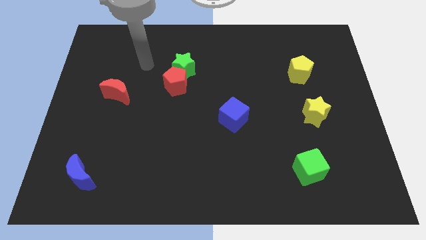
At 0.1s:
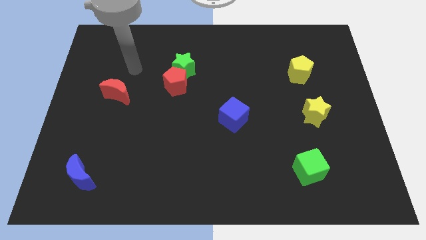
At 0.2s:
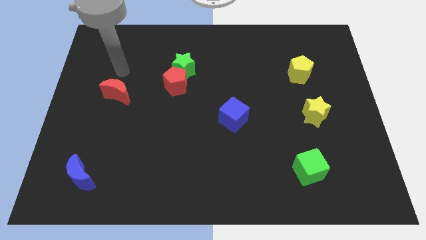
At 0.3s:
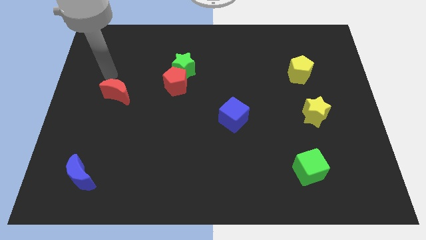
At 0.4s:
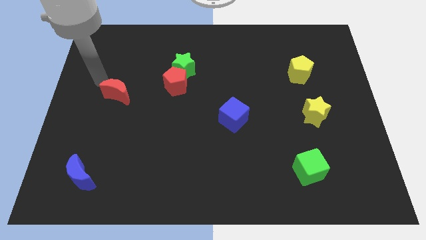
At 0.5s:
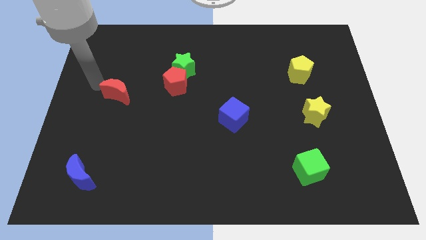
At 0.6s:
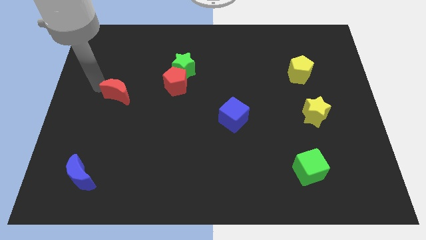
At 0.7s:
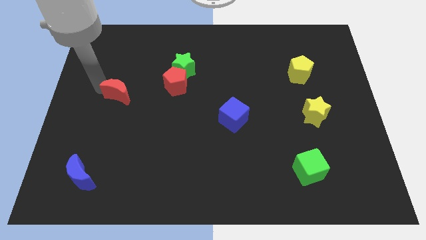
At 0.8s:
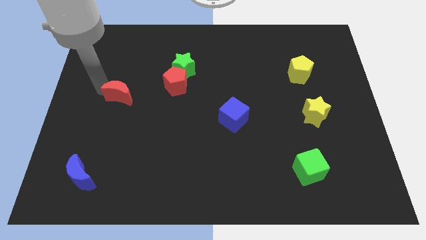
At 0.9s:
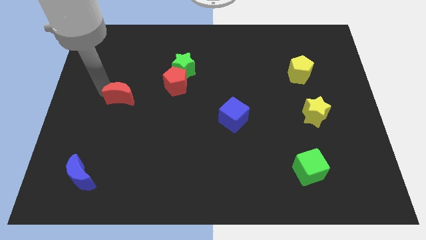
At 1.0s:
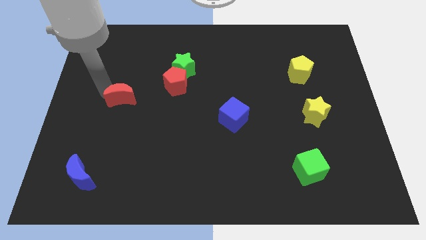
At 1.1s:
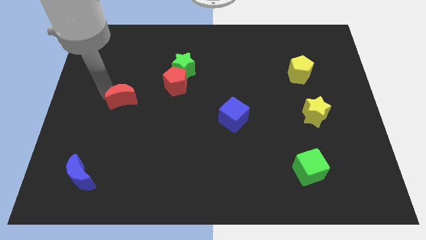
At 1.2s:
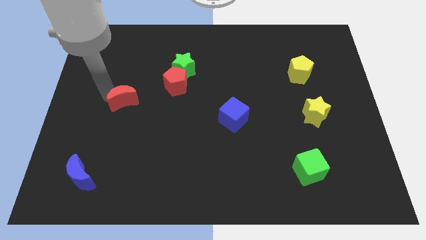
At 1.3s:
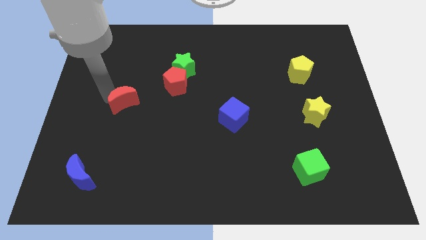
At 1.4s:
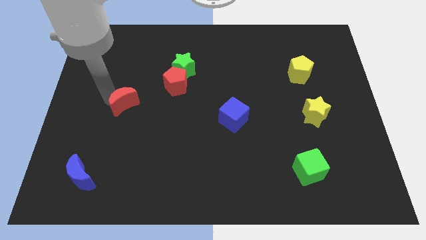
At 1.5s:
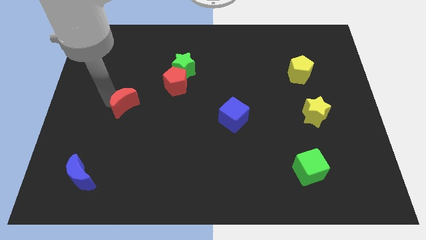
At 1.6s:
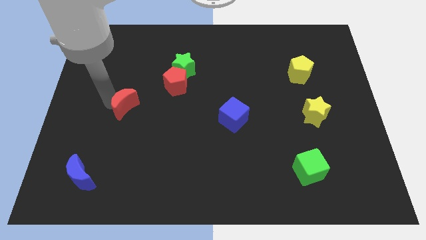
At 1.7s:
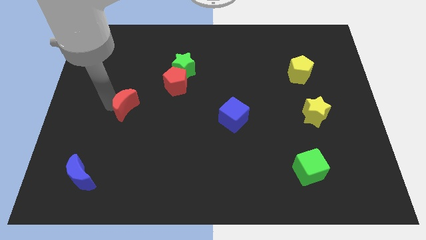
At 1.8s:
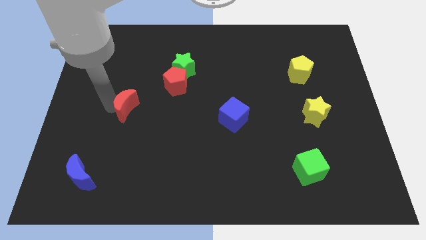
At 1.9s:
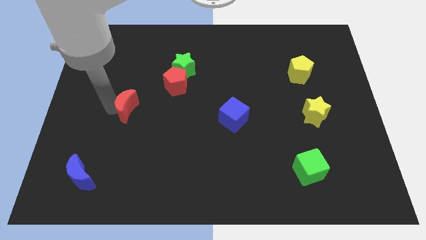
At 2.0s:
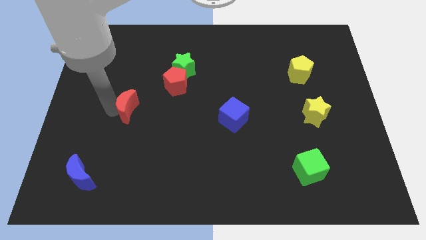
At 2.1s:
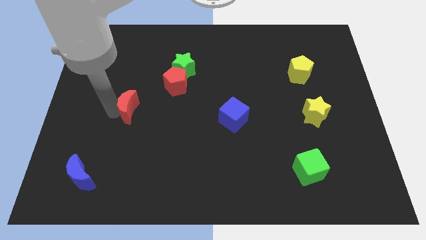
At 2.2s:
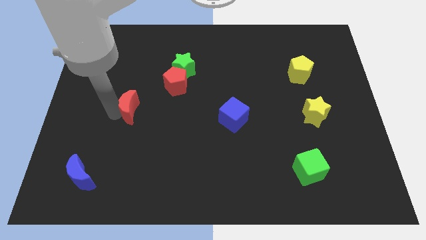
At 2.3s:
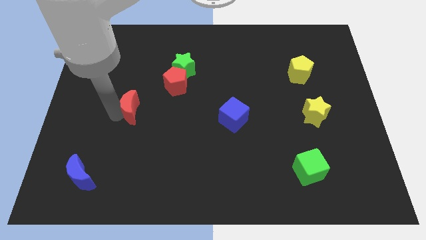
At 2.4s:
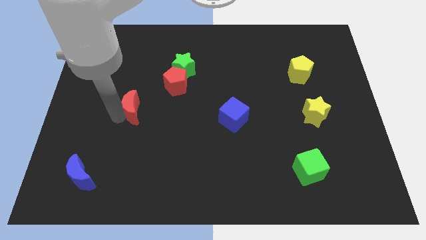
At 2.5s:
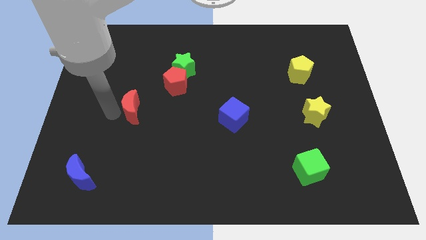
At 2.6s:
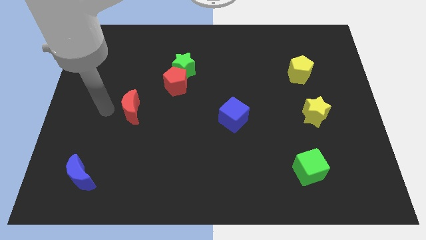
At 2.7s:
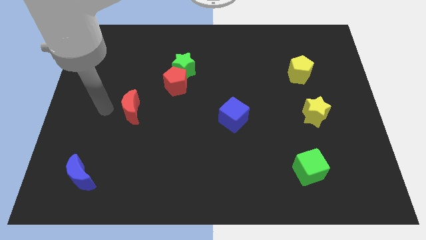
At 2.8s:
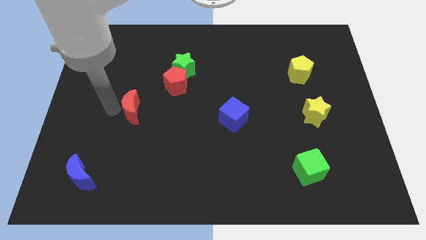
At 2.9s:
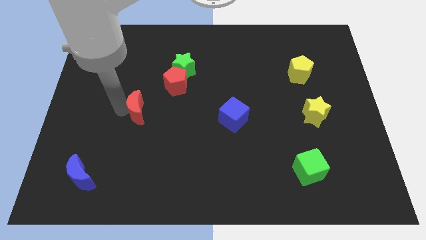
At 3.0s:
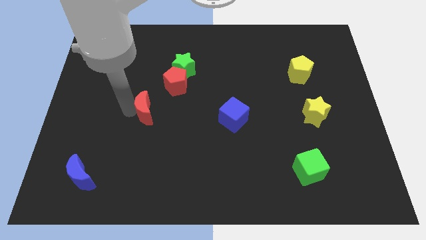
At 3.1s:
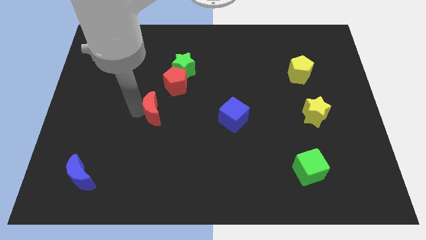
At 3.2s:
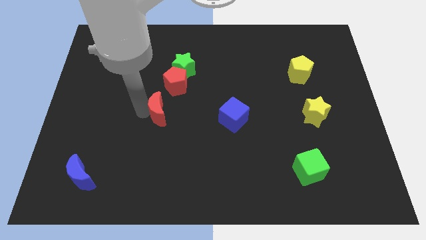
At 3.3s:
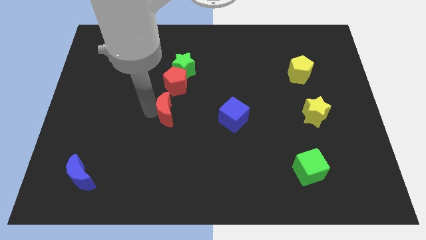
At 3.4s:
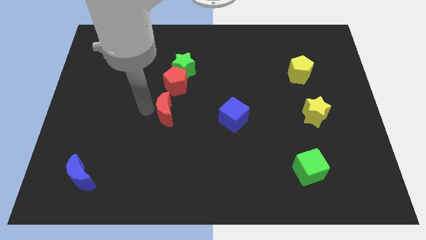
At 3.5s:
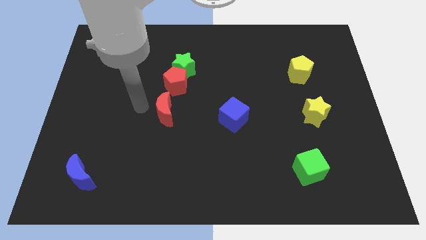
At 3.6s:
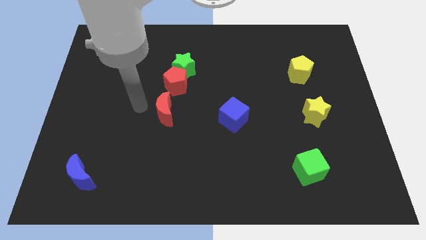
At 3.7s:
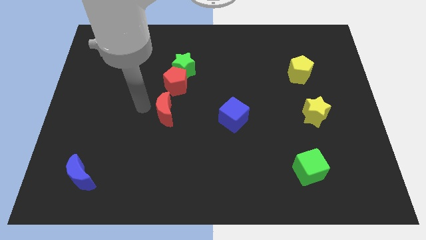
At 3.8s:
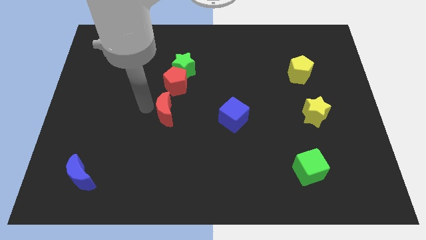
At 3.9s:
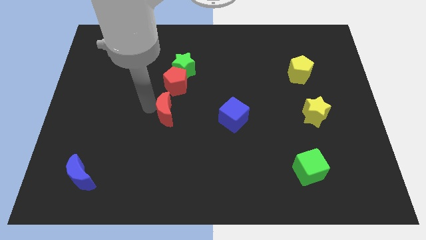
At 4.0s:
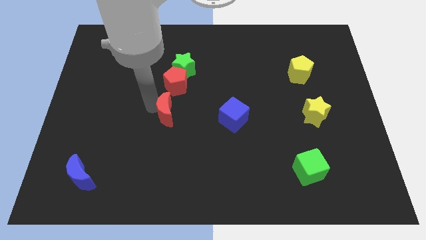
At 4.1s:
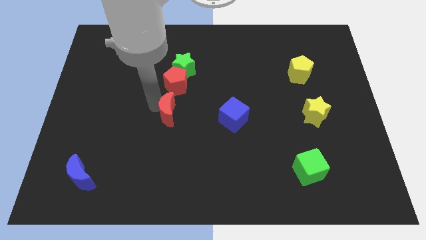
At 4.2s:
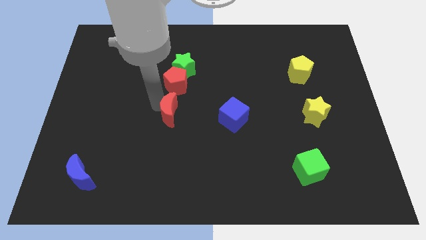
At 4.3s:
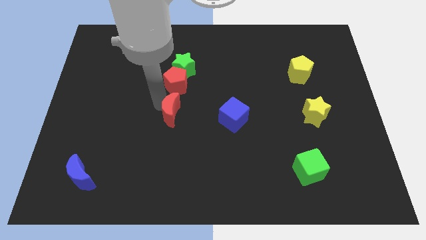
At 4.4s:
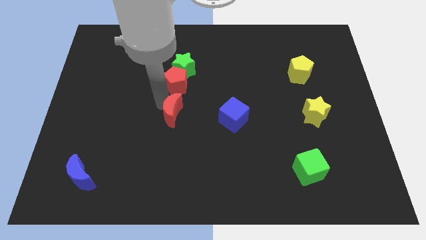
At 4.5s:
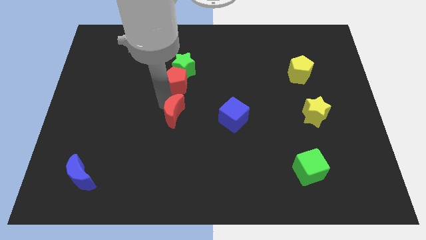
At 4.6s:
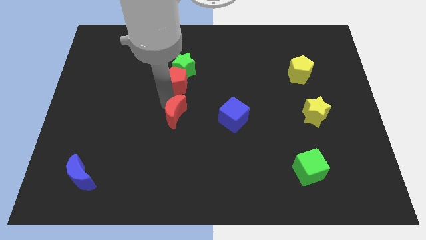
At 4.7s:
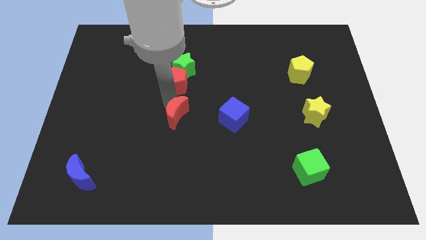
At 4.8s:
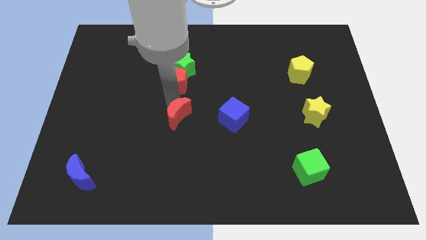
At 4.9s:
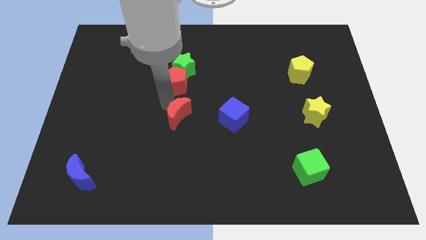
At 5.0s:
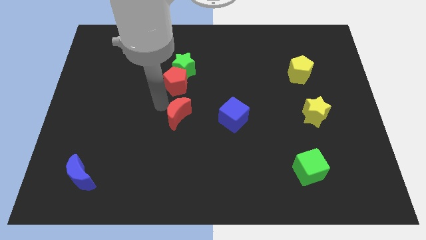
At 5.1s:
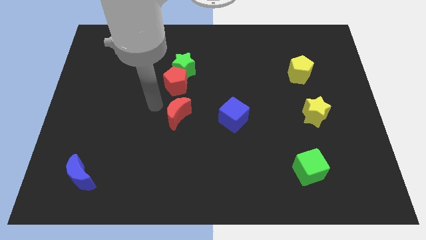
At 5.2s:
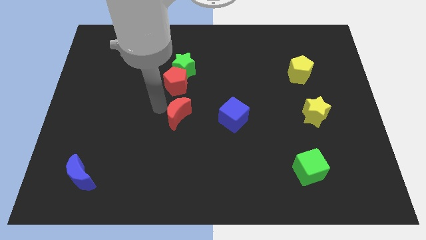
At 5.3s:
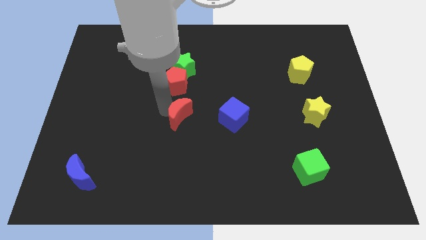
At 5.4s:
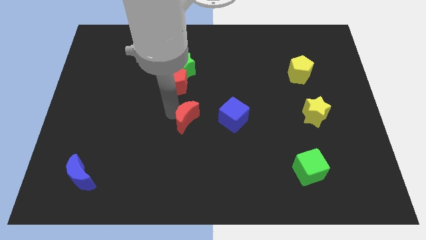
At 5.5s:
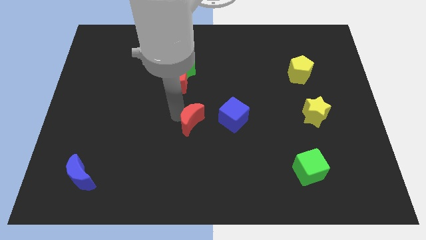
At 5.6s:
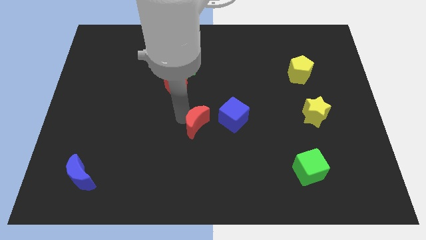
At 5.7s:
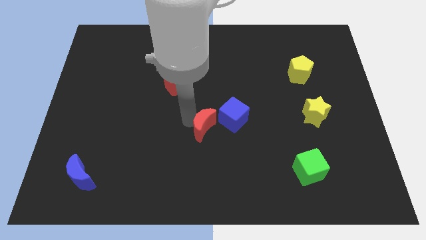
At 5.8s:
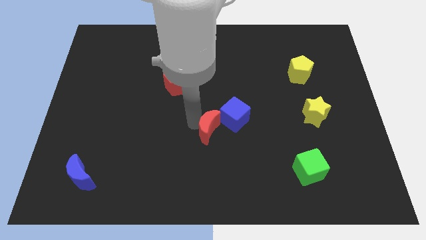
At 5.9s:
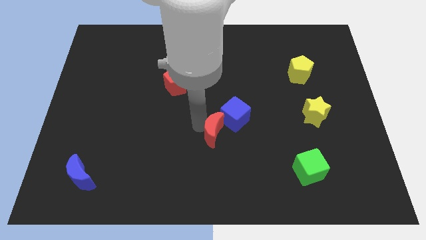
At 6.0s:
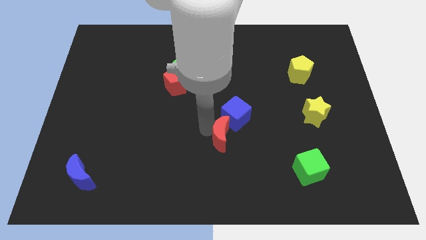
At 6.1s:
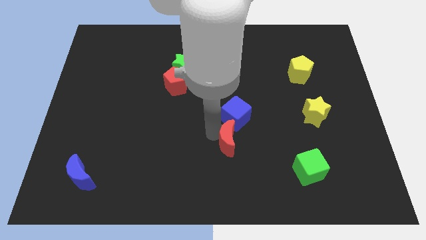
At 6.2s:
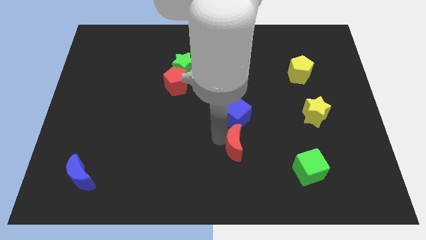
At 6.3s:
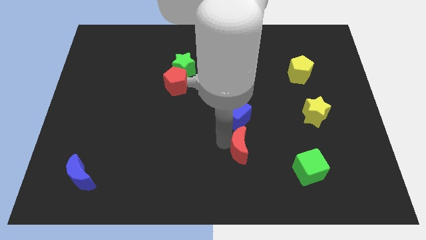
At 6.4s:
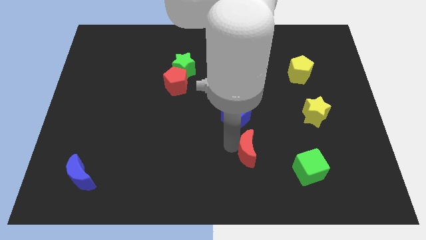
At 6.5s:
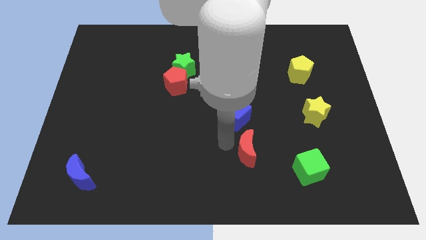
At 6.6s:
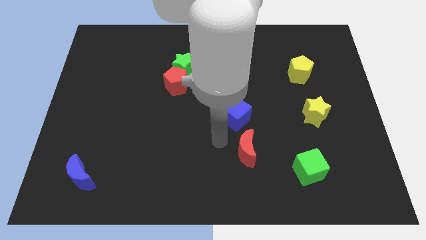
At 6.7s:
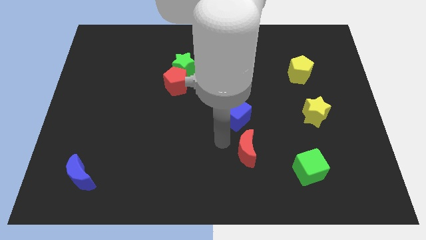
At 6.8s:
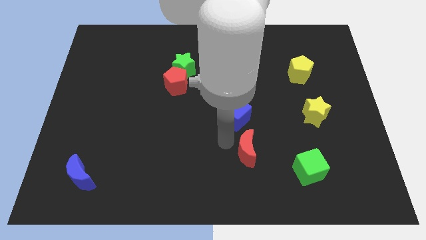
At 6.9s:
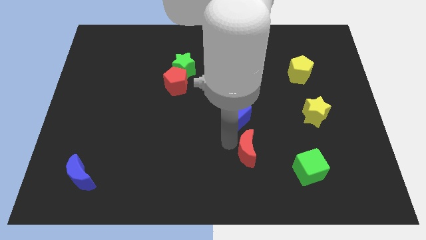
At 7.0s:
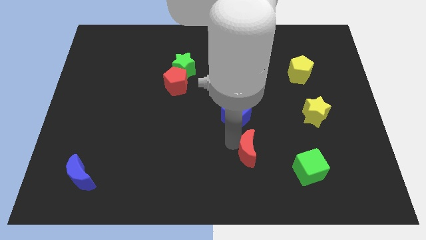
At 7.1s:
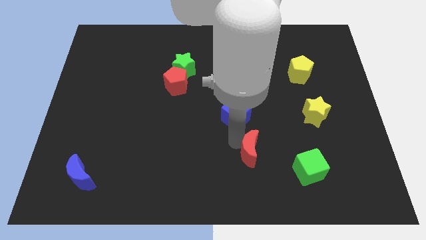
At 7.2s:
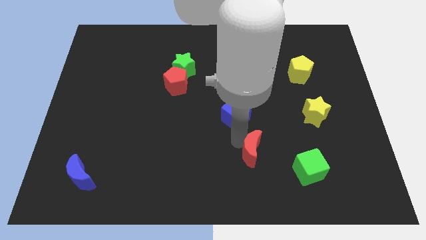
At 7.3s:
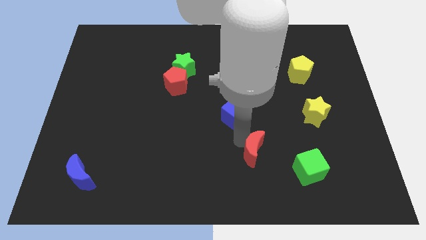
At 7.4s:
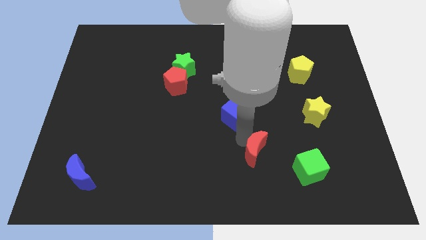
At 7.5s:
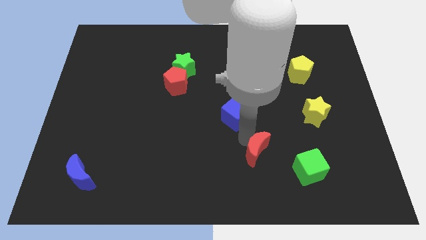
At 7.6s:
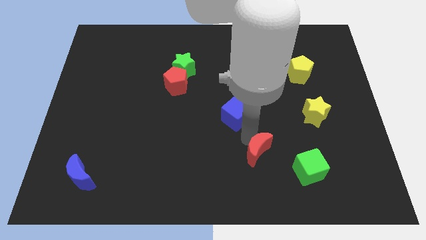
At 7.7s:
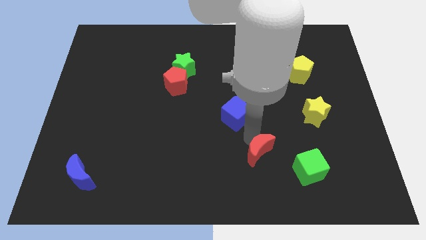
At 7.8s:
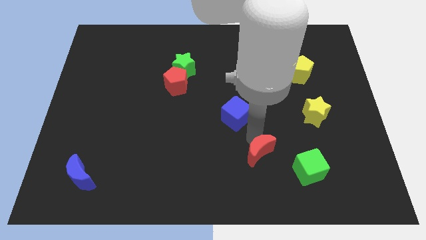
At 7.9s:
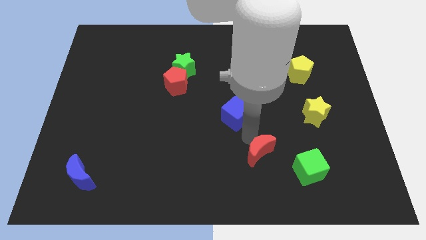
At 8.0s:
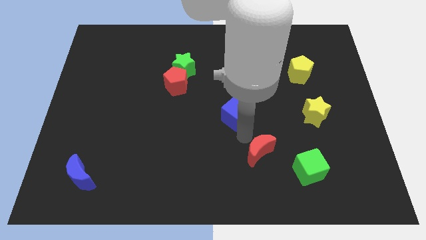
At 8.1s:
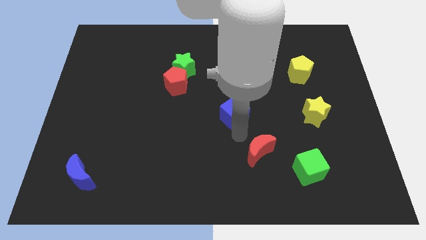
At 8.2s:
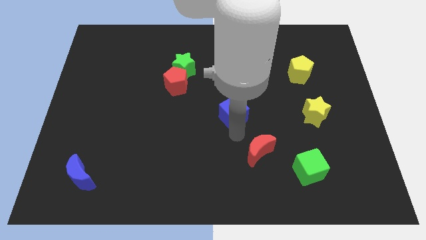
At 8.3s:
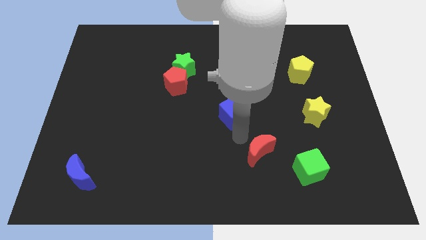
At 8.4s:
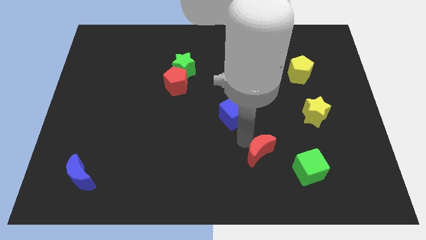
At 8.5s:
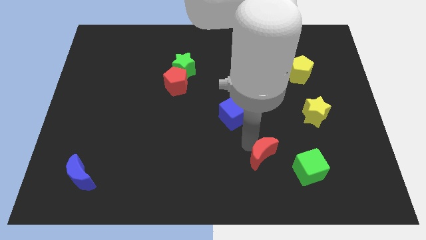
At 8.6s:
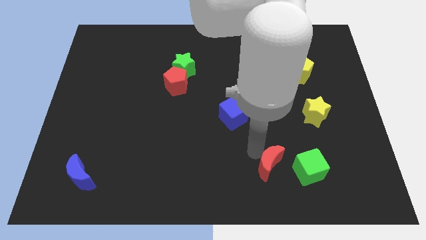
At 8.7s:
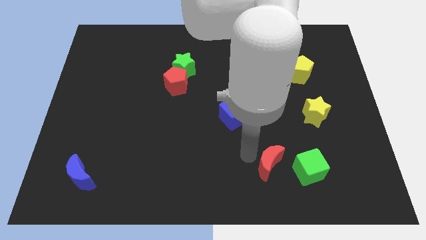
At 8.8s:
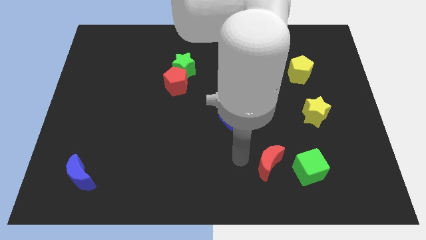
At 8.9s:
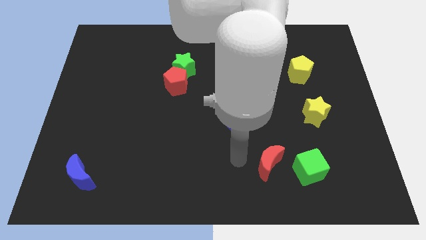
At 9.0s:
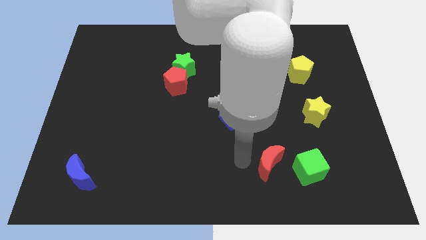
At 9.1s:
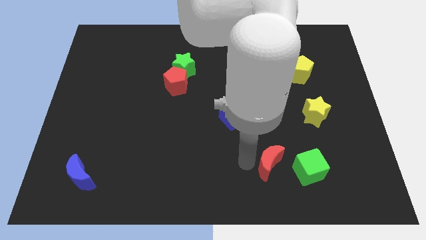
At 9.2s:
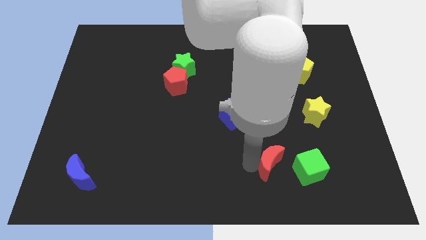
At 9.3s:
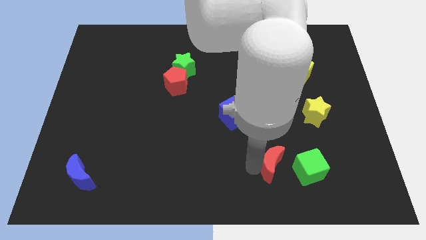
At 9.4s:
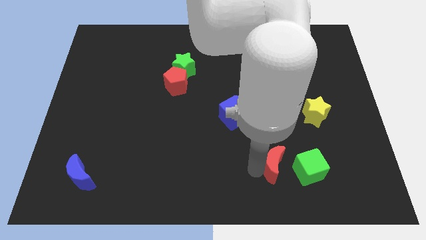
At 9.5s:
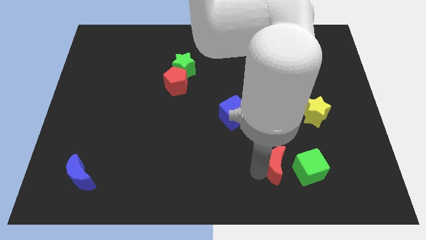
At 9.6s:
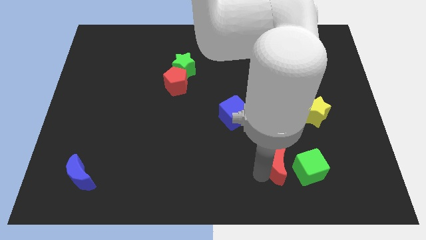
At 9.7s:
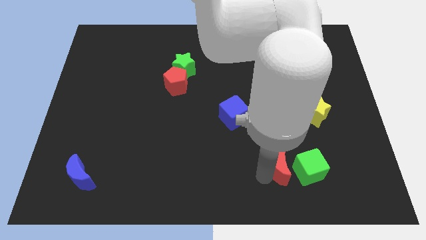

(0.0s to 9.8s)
move the red moon towards the green cube
